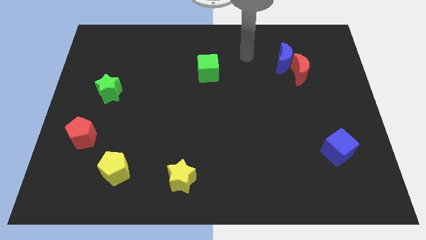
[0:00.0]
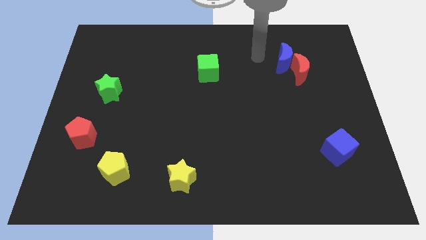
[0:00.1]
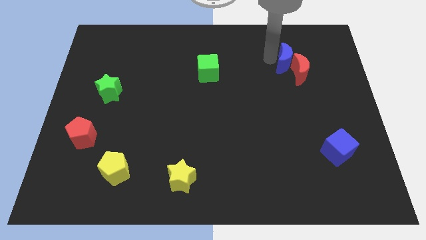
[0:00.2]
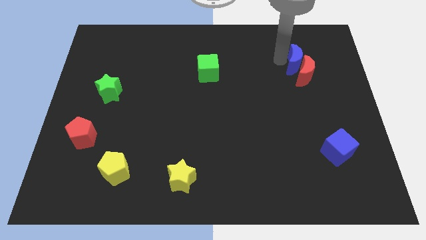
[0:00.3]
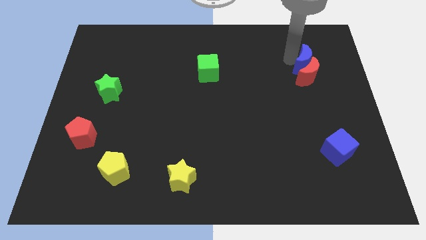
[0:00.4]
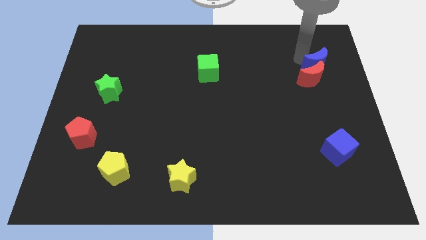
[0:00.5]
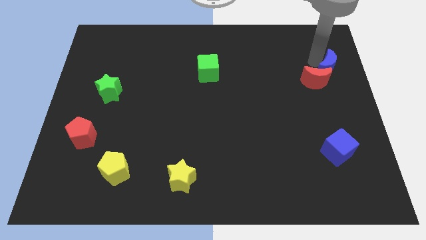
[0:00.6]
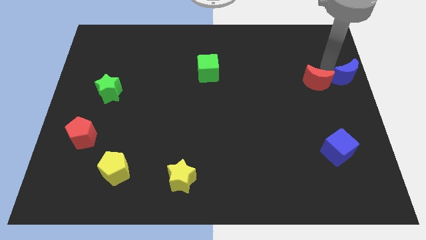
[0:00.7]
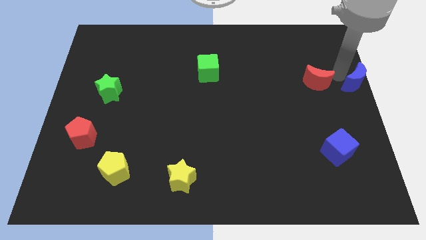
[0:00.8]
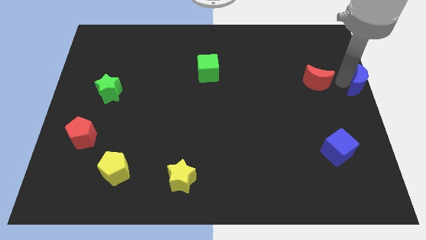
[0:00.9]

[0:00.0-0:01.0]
move the red moon away from the blue moon

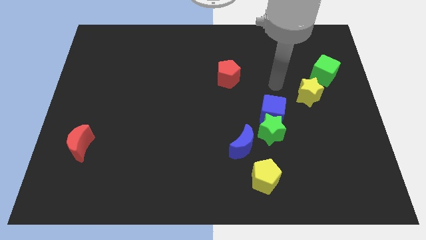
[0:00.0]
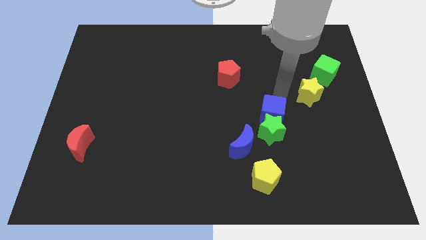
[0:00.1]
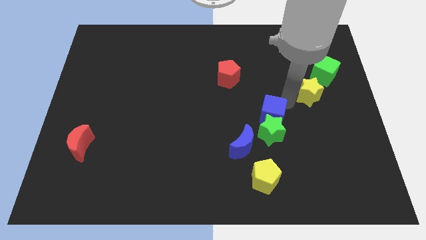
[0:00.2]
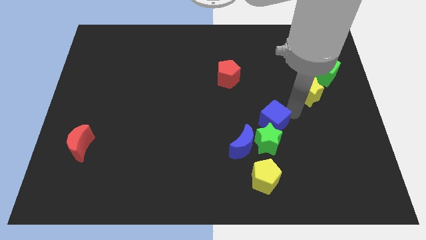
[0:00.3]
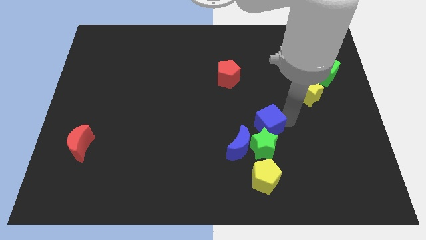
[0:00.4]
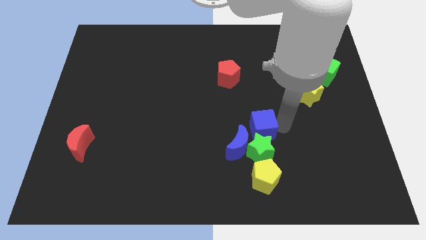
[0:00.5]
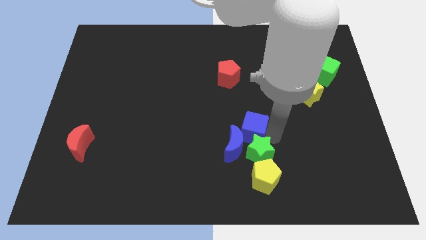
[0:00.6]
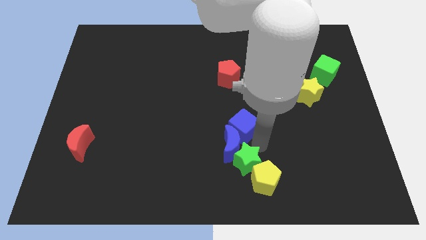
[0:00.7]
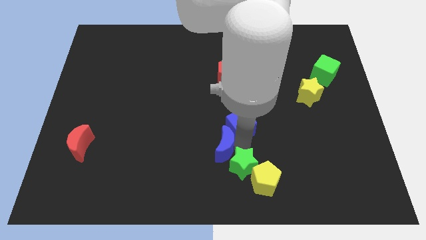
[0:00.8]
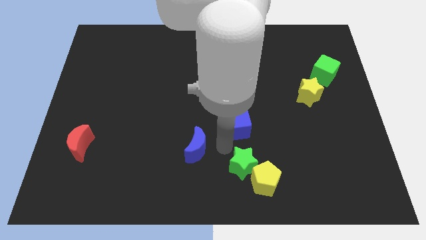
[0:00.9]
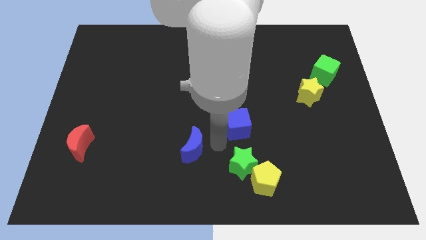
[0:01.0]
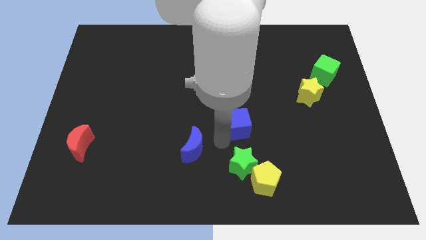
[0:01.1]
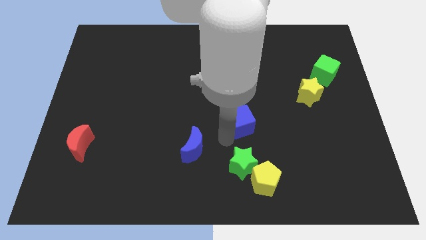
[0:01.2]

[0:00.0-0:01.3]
separate the blue cube from the green star

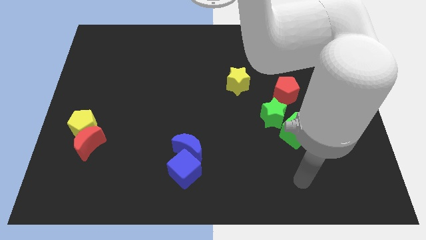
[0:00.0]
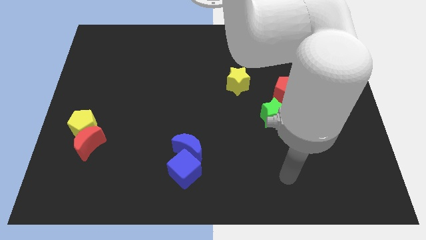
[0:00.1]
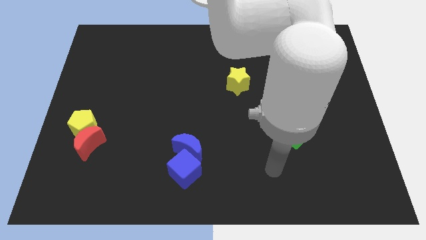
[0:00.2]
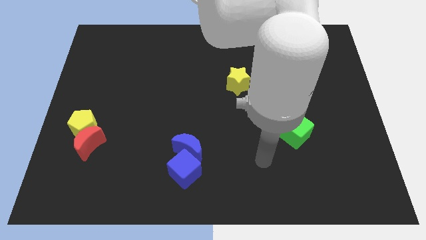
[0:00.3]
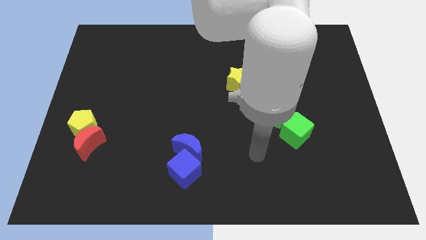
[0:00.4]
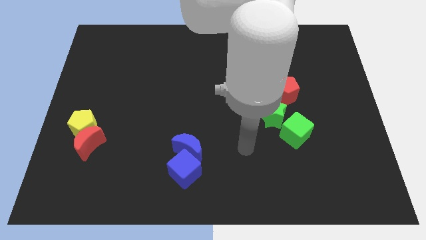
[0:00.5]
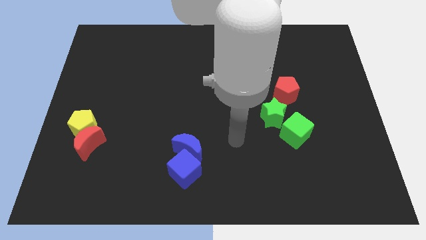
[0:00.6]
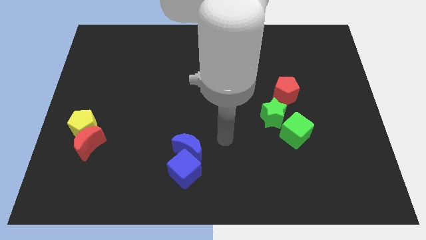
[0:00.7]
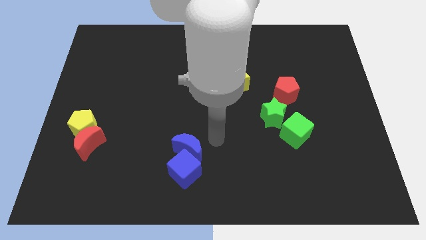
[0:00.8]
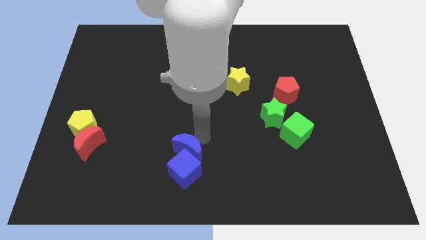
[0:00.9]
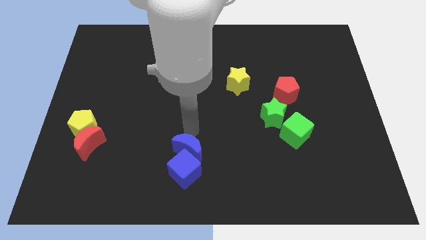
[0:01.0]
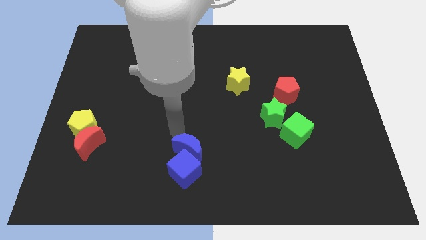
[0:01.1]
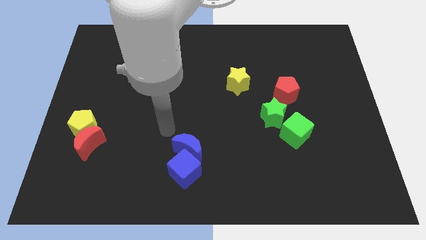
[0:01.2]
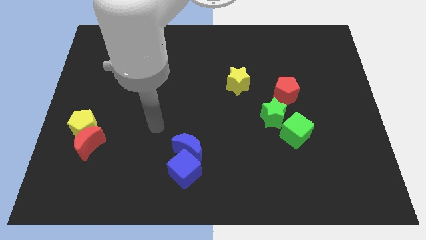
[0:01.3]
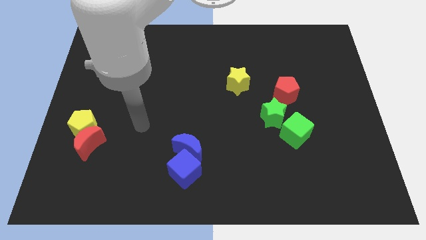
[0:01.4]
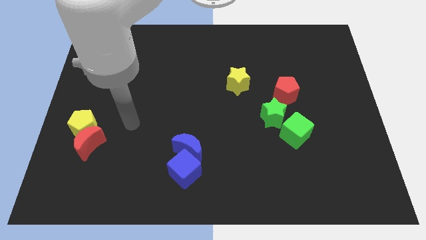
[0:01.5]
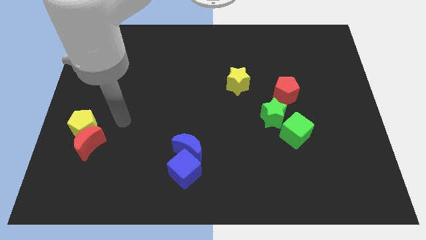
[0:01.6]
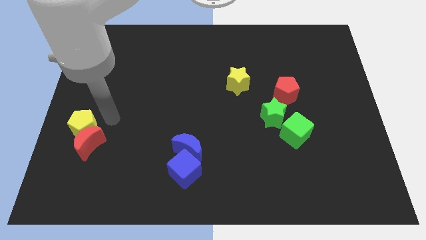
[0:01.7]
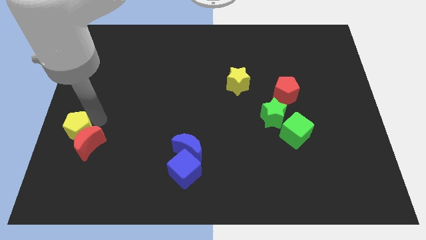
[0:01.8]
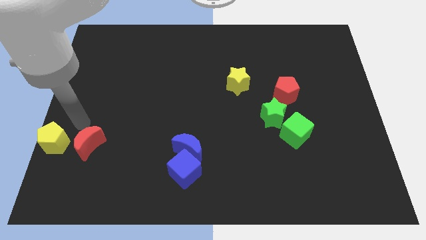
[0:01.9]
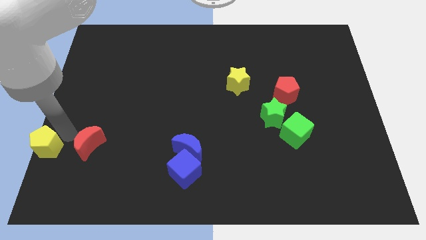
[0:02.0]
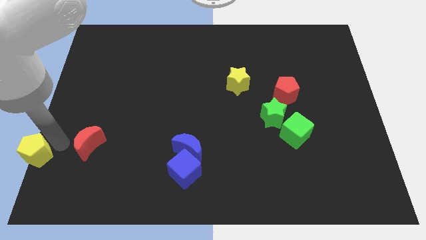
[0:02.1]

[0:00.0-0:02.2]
move the red moon away from the yellow pentagon

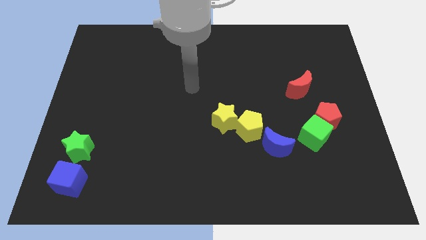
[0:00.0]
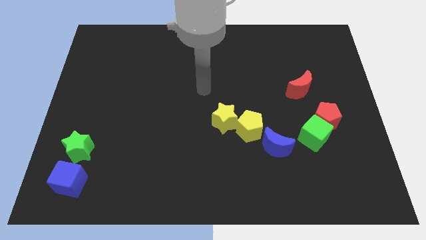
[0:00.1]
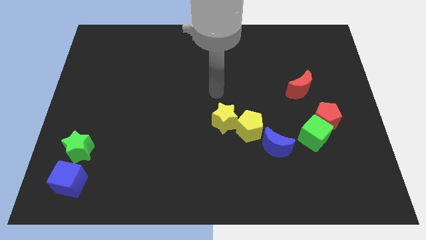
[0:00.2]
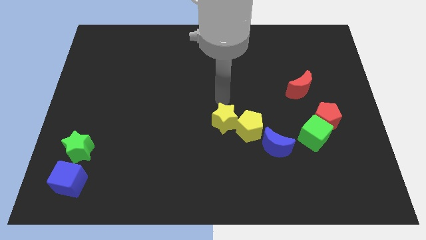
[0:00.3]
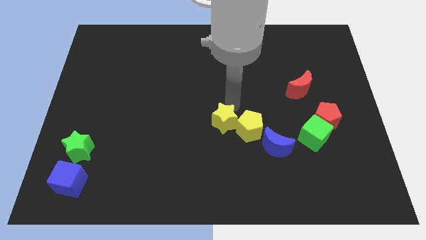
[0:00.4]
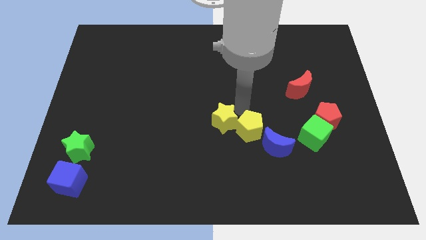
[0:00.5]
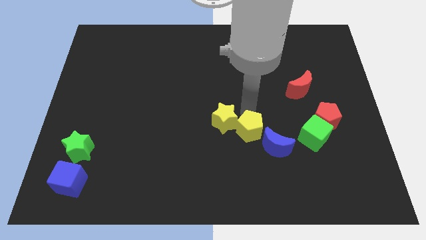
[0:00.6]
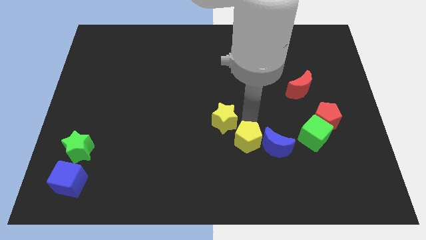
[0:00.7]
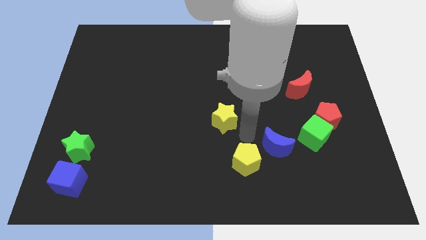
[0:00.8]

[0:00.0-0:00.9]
pull the yellow star apart from the yellow pentagon

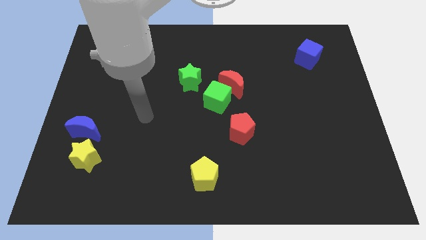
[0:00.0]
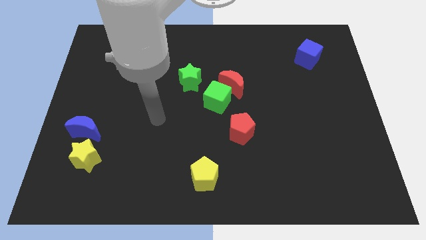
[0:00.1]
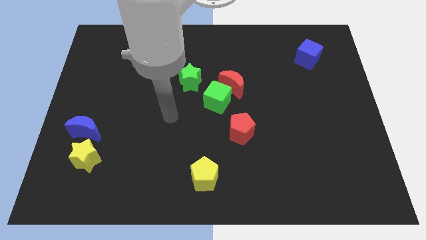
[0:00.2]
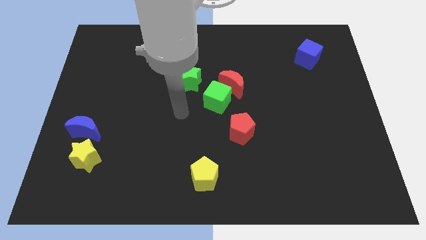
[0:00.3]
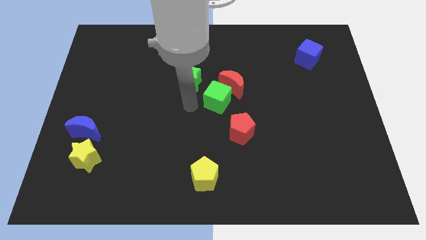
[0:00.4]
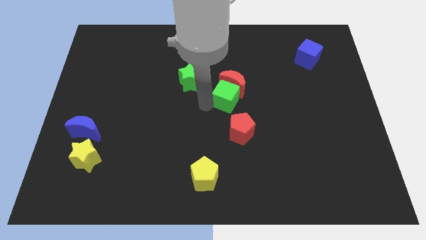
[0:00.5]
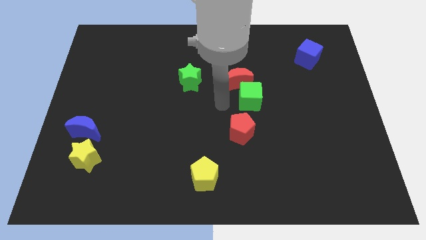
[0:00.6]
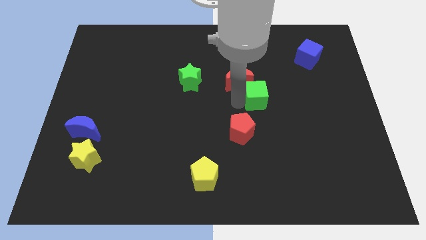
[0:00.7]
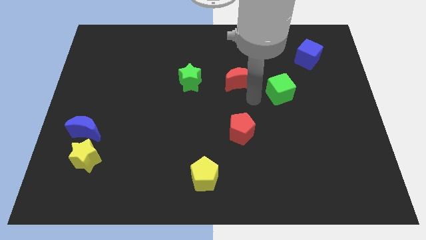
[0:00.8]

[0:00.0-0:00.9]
pull the red moon apart from the green cube

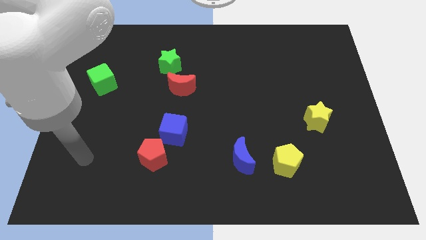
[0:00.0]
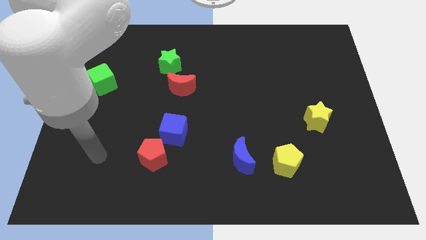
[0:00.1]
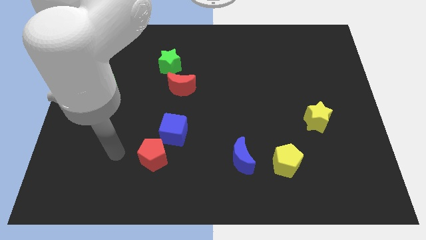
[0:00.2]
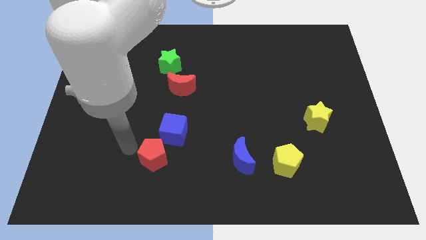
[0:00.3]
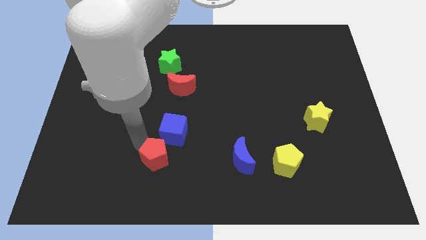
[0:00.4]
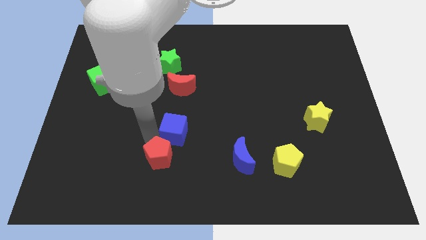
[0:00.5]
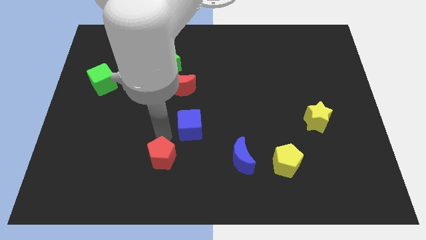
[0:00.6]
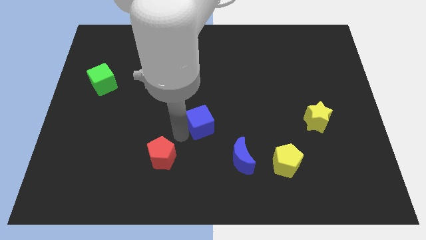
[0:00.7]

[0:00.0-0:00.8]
pull the red pentagon apart from the blue cube

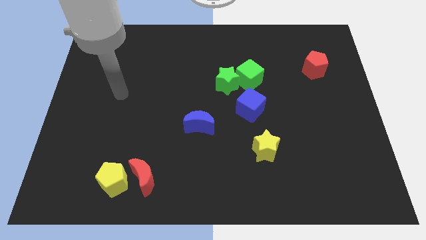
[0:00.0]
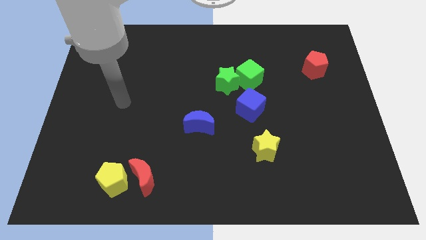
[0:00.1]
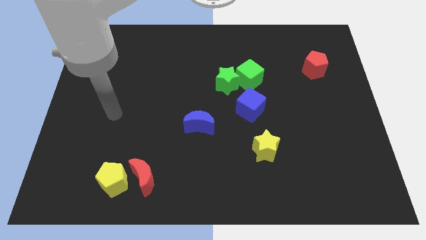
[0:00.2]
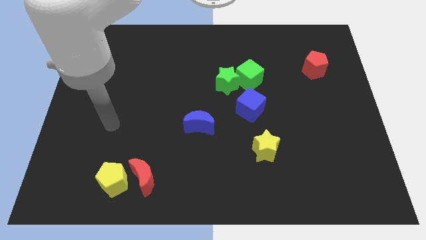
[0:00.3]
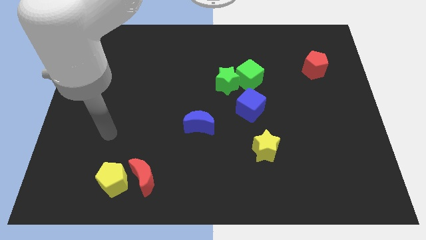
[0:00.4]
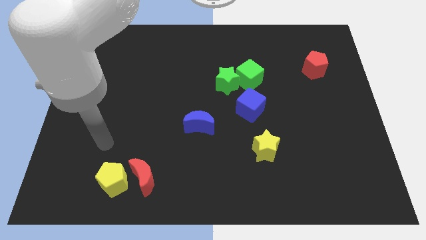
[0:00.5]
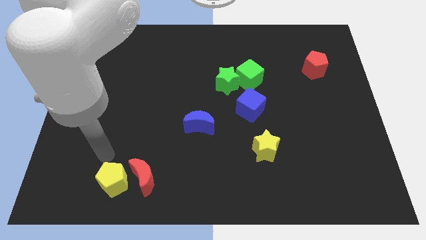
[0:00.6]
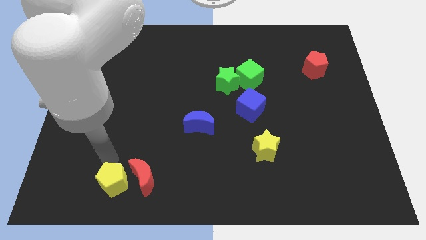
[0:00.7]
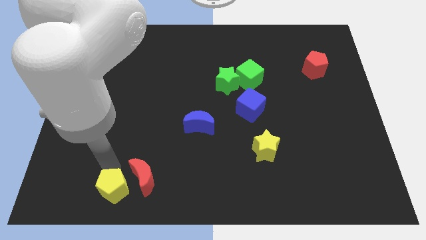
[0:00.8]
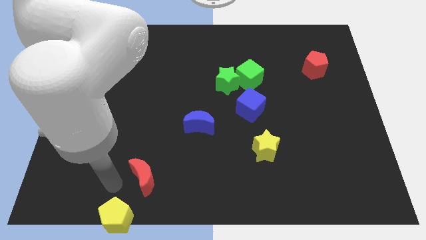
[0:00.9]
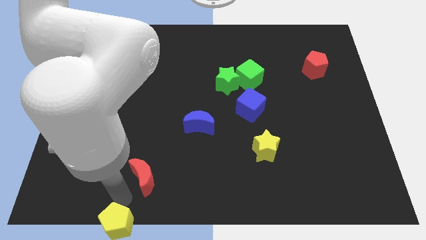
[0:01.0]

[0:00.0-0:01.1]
pull the red moon apart from the yellow pentagon

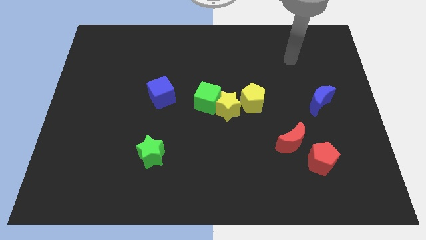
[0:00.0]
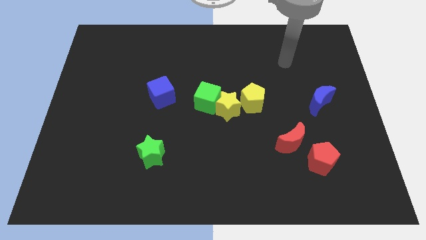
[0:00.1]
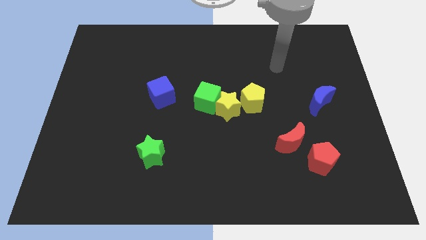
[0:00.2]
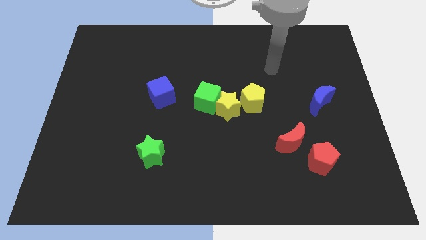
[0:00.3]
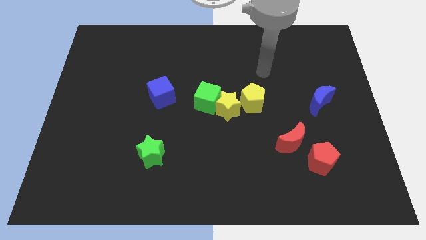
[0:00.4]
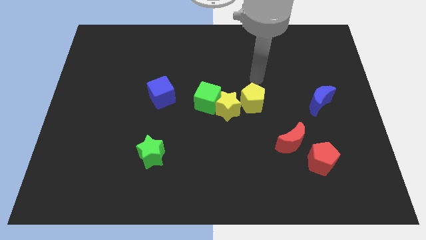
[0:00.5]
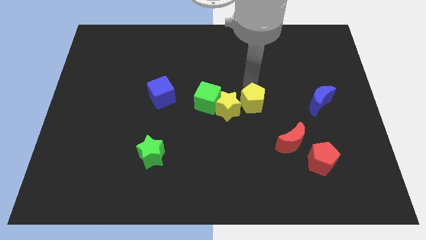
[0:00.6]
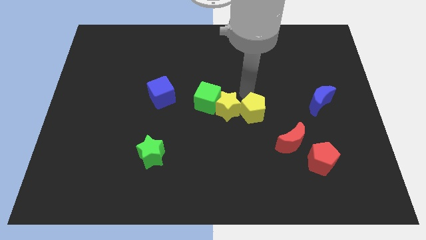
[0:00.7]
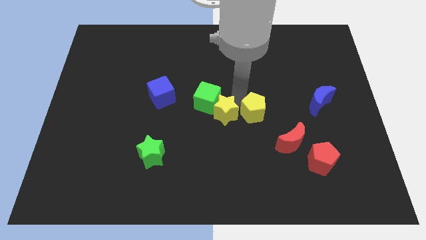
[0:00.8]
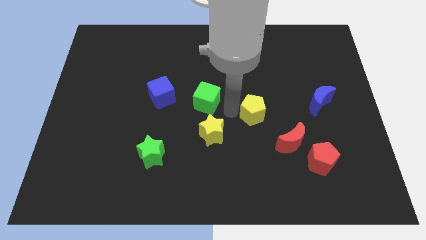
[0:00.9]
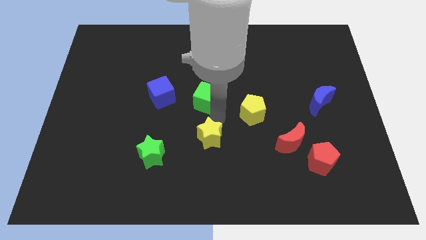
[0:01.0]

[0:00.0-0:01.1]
move the green cube away from the yellow star
